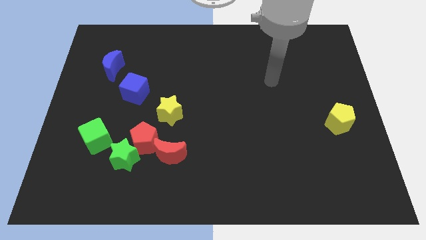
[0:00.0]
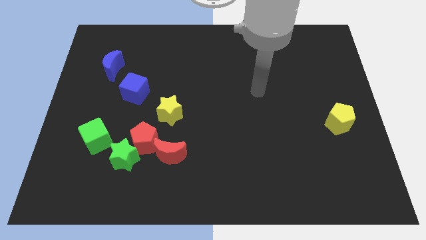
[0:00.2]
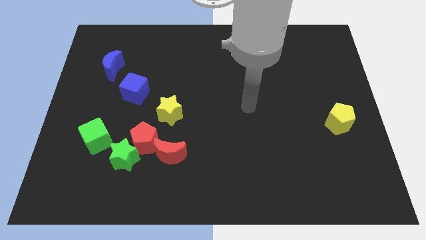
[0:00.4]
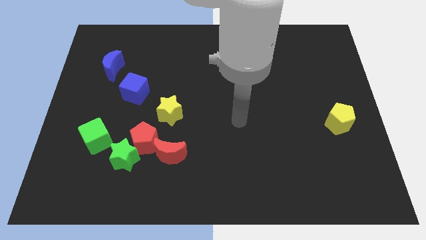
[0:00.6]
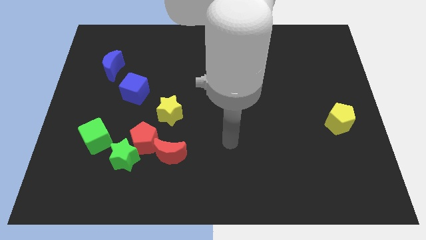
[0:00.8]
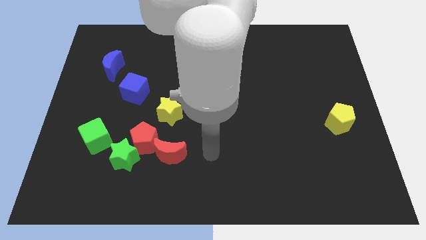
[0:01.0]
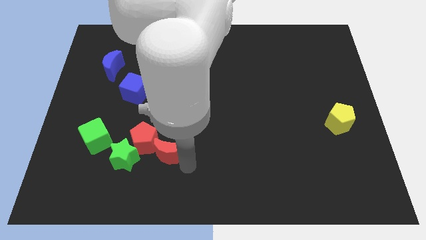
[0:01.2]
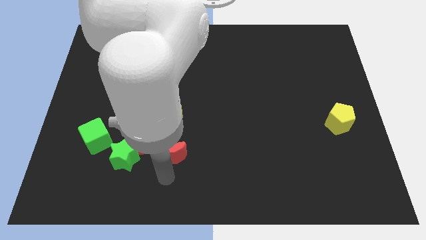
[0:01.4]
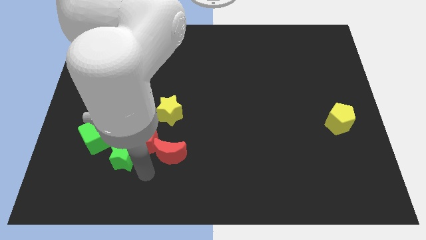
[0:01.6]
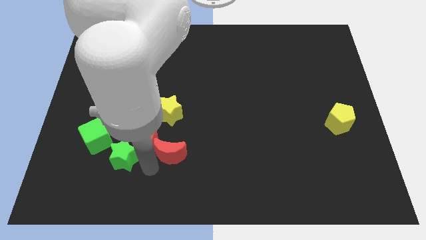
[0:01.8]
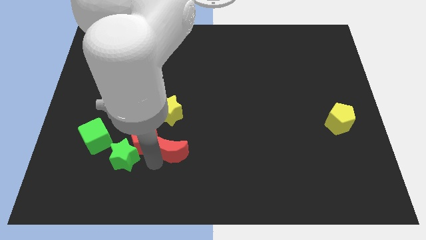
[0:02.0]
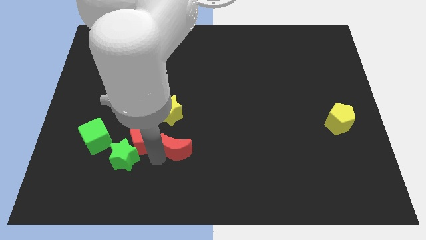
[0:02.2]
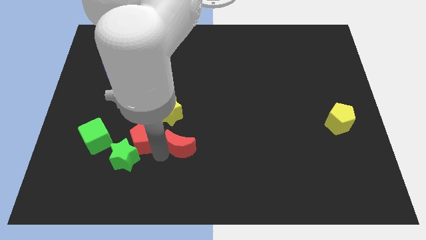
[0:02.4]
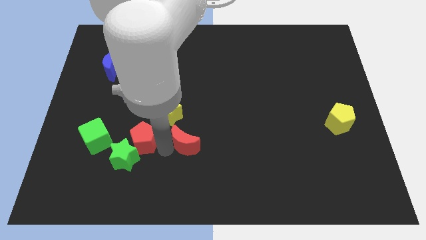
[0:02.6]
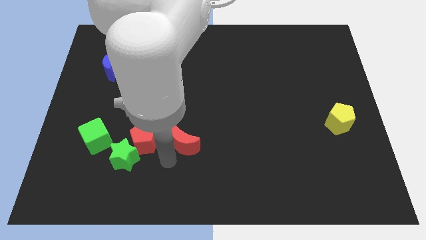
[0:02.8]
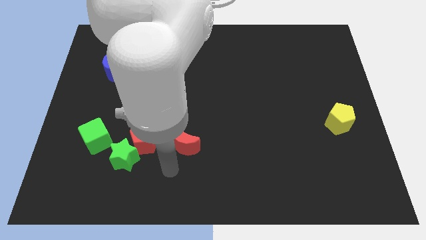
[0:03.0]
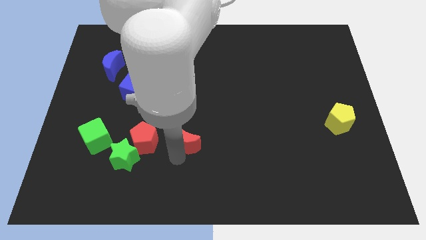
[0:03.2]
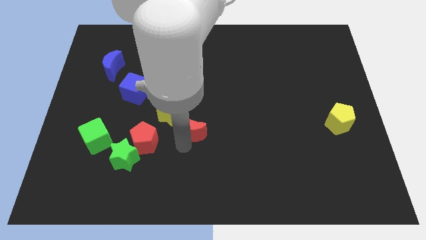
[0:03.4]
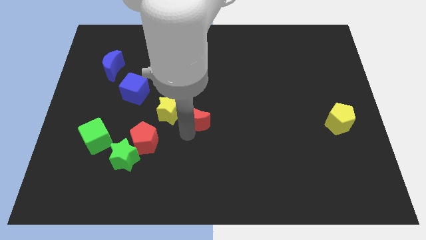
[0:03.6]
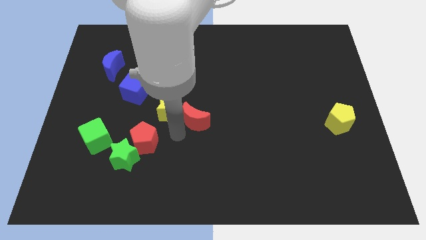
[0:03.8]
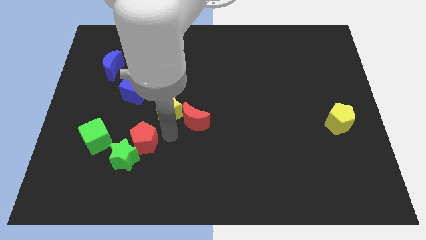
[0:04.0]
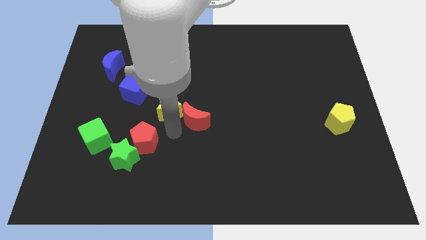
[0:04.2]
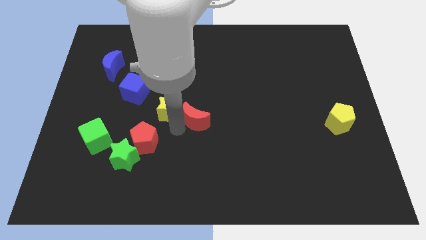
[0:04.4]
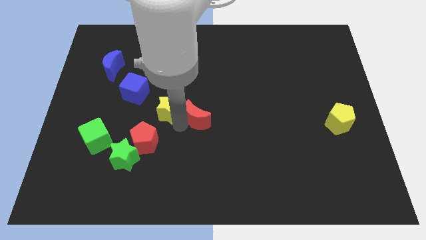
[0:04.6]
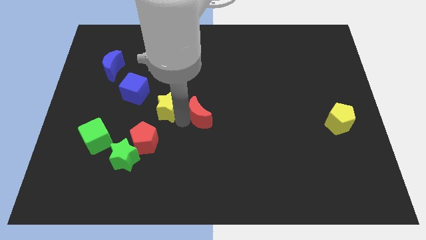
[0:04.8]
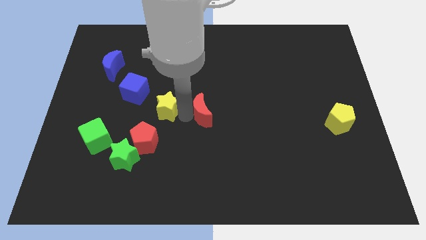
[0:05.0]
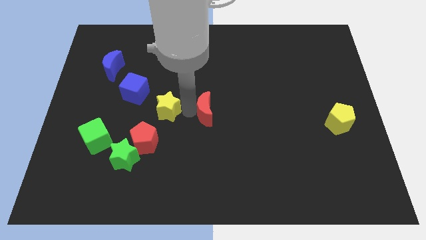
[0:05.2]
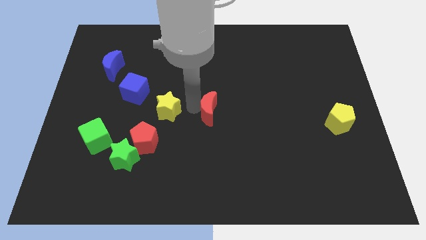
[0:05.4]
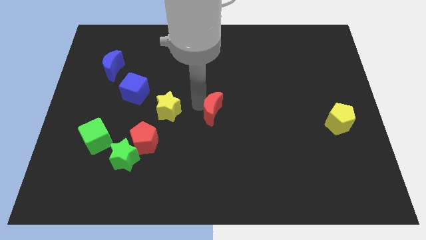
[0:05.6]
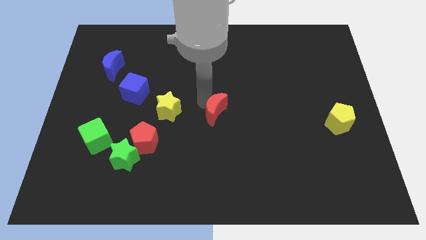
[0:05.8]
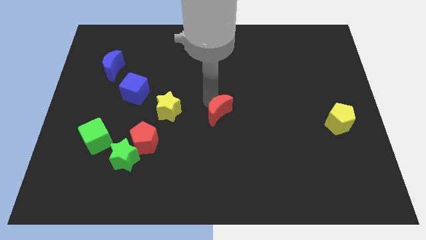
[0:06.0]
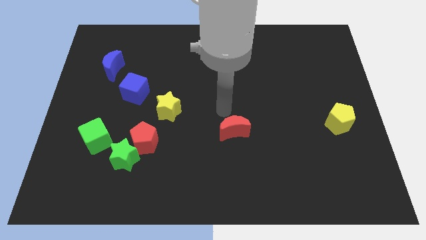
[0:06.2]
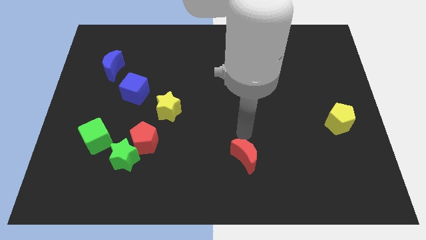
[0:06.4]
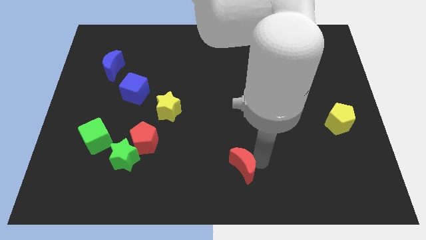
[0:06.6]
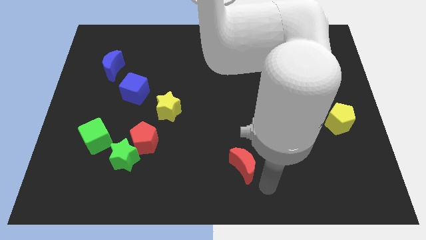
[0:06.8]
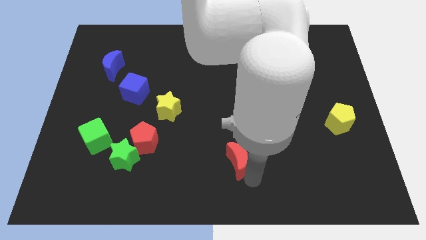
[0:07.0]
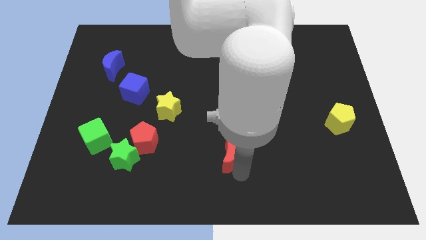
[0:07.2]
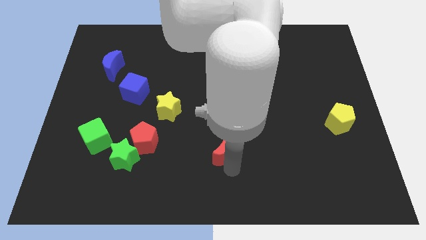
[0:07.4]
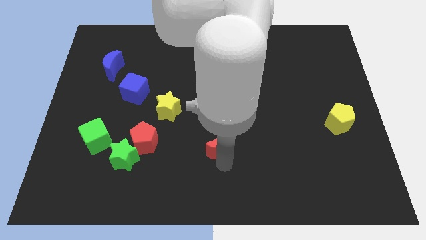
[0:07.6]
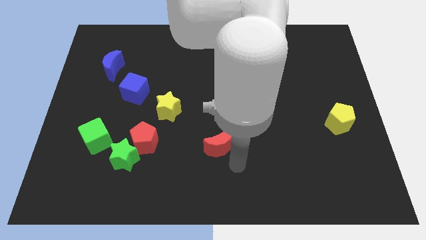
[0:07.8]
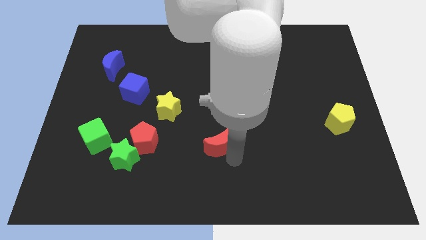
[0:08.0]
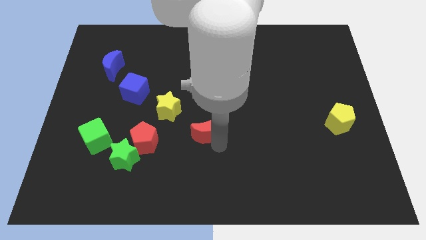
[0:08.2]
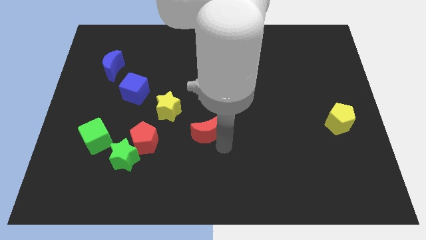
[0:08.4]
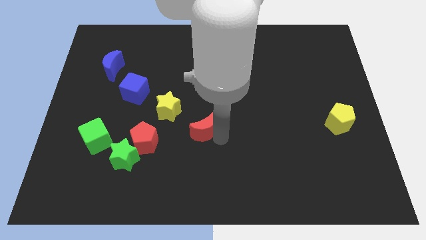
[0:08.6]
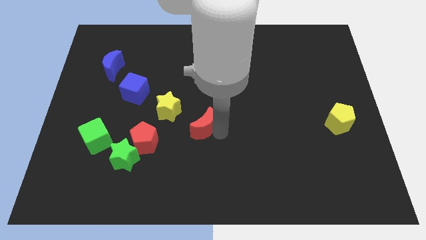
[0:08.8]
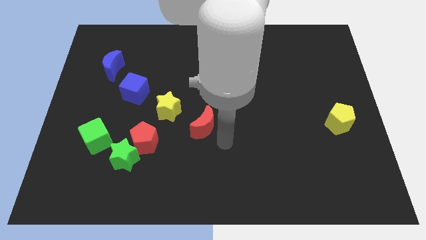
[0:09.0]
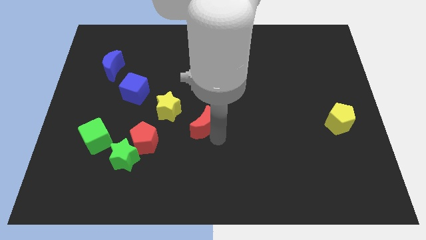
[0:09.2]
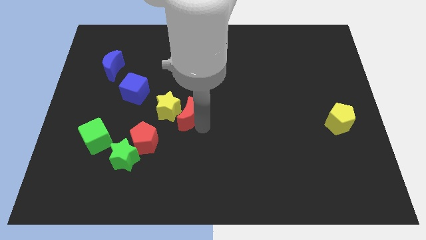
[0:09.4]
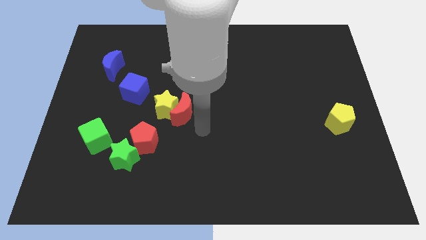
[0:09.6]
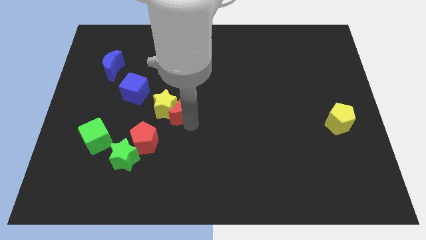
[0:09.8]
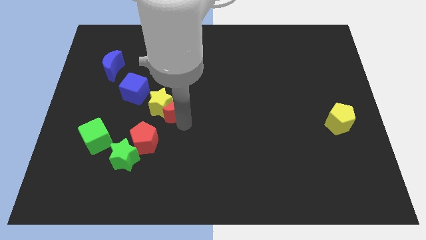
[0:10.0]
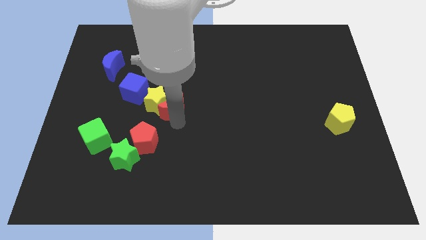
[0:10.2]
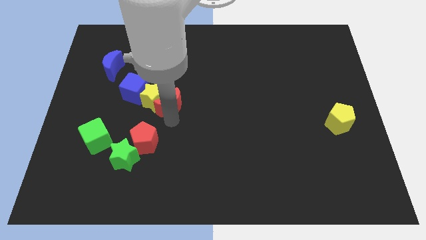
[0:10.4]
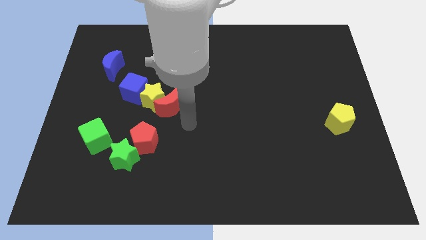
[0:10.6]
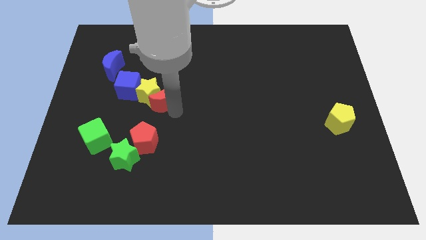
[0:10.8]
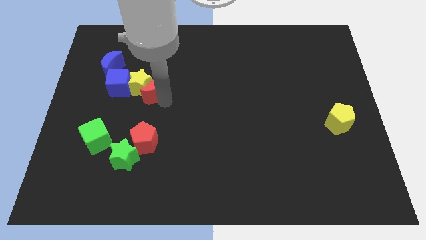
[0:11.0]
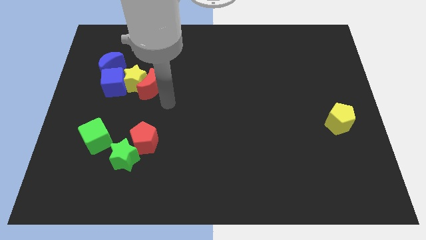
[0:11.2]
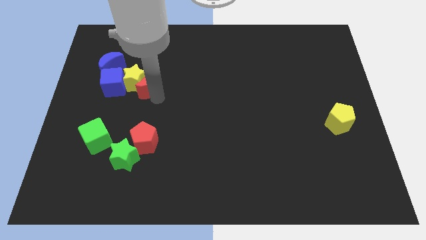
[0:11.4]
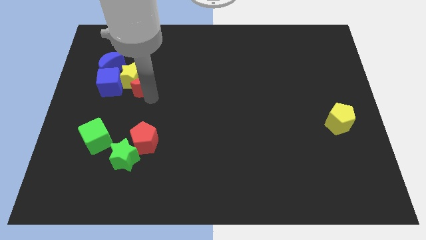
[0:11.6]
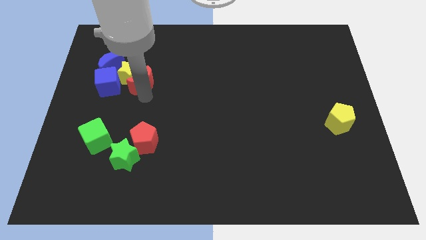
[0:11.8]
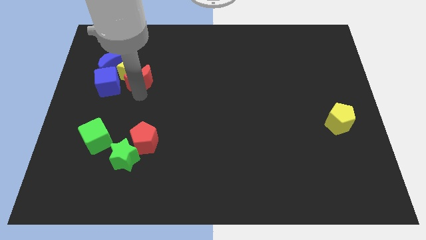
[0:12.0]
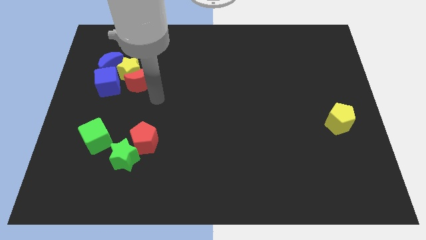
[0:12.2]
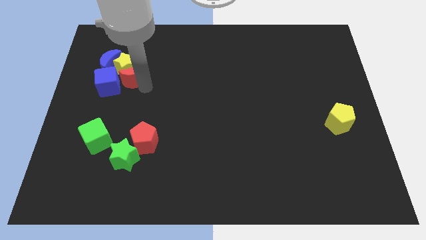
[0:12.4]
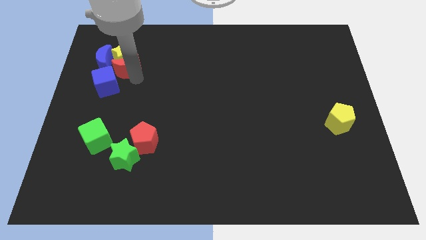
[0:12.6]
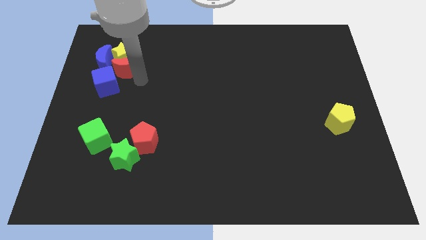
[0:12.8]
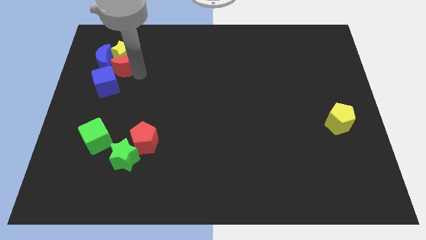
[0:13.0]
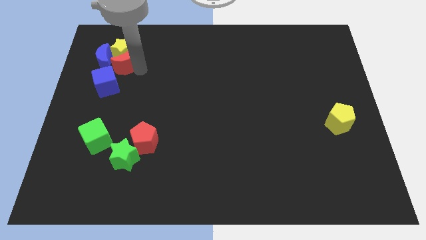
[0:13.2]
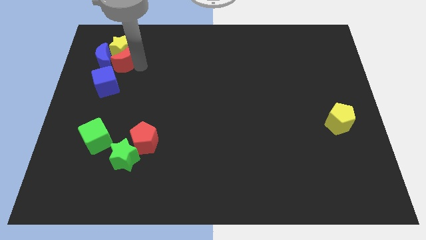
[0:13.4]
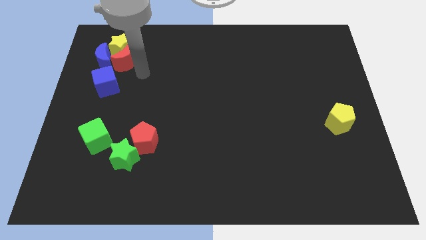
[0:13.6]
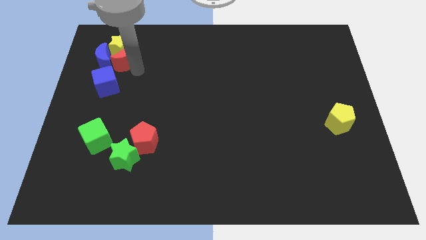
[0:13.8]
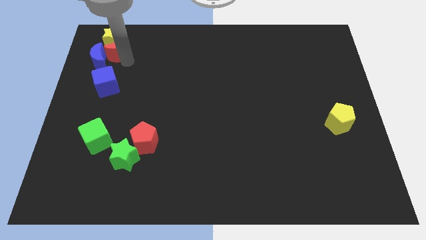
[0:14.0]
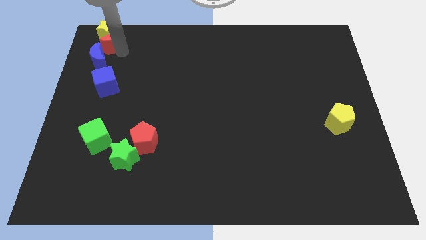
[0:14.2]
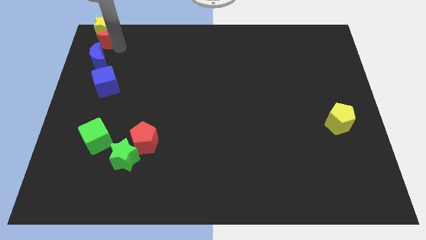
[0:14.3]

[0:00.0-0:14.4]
push the red moon to the top left
